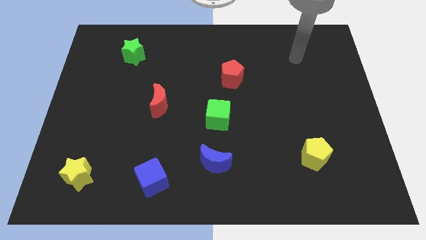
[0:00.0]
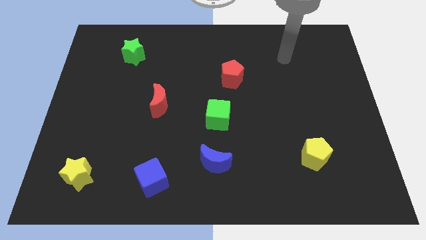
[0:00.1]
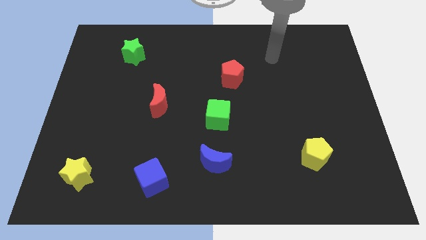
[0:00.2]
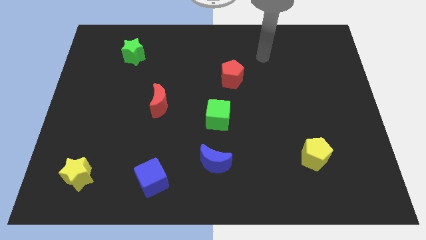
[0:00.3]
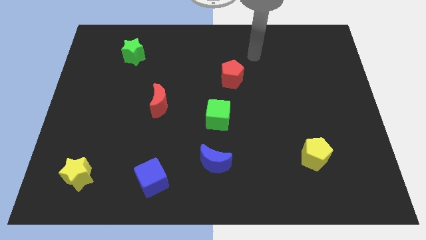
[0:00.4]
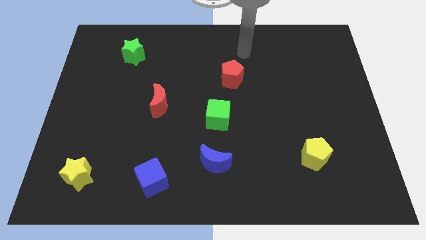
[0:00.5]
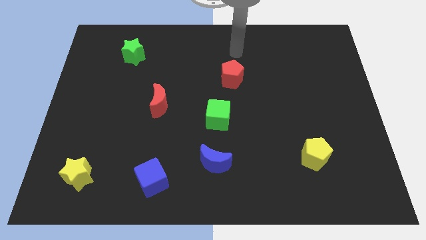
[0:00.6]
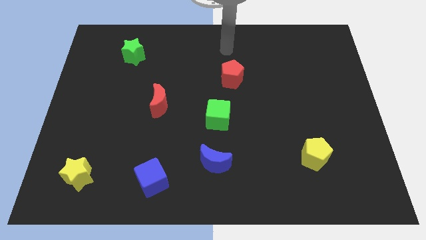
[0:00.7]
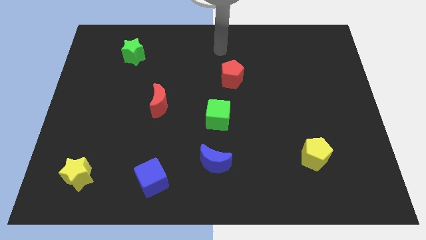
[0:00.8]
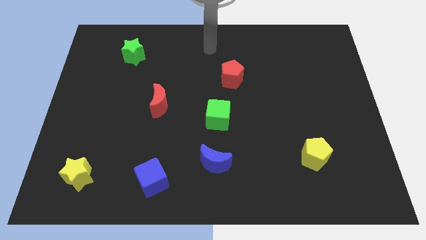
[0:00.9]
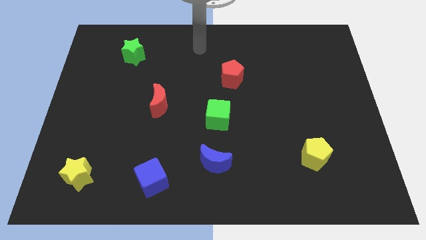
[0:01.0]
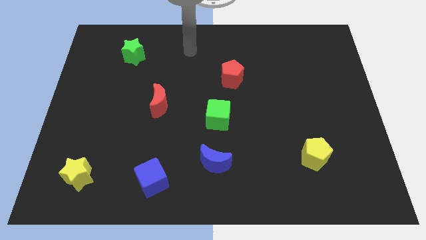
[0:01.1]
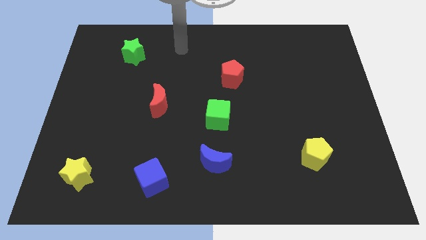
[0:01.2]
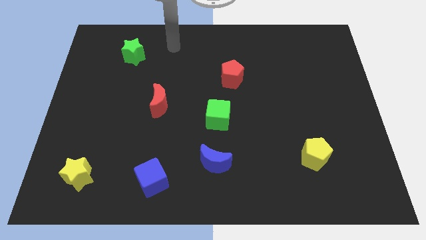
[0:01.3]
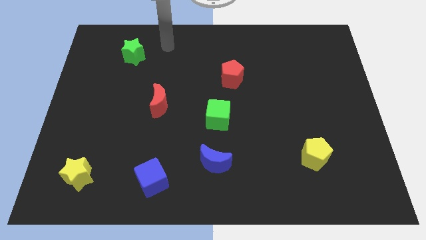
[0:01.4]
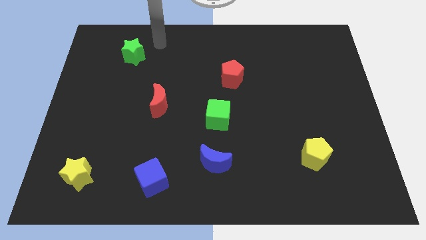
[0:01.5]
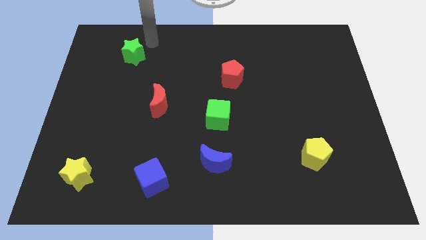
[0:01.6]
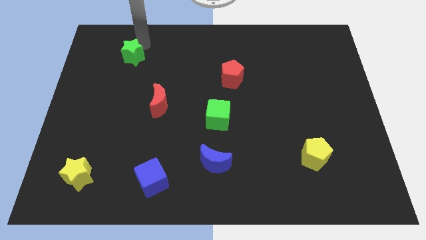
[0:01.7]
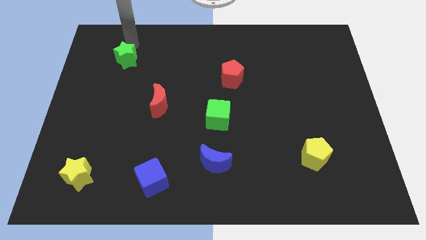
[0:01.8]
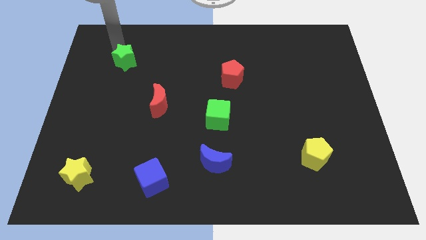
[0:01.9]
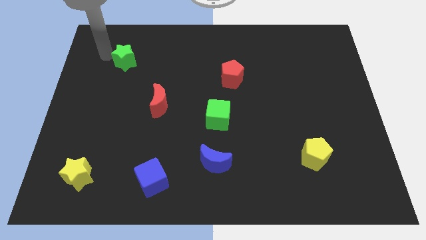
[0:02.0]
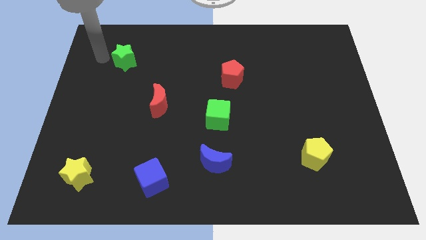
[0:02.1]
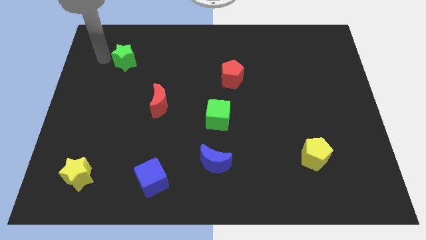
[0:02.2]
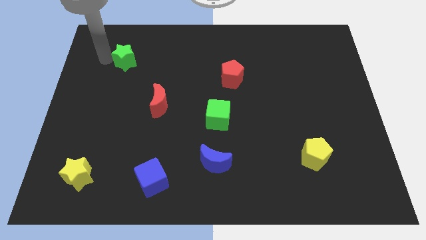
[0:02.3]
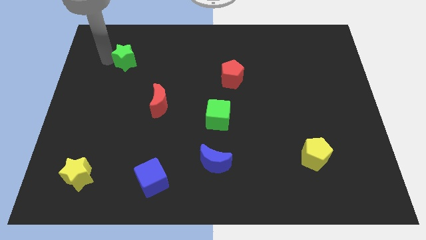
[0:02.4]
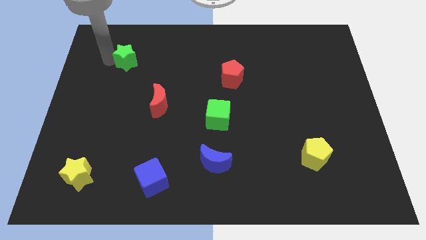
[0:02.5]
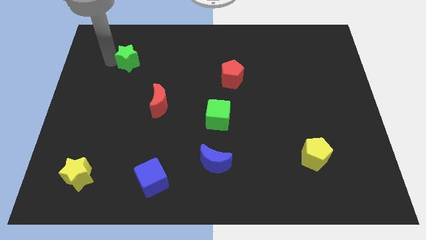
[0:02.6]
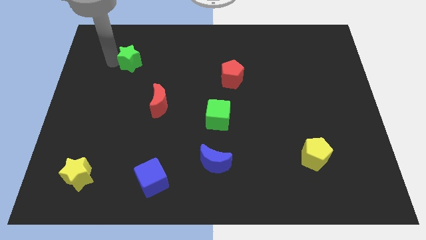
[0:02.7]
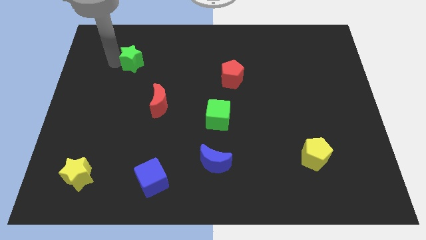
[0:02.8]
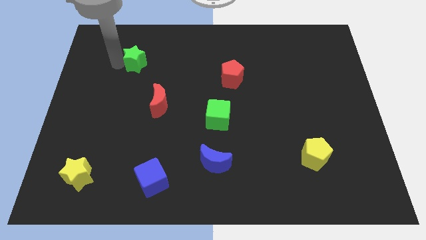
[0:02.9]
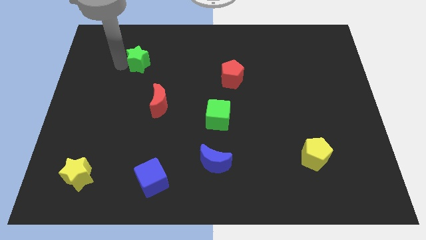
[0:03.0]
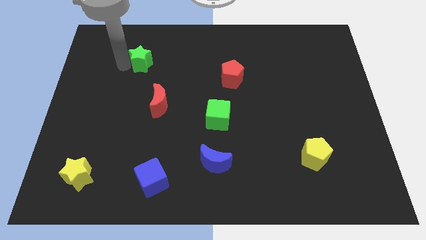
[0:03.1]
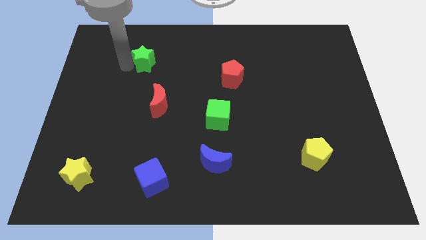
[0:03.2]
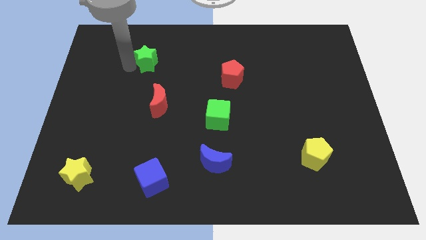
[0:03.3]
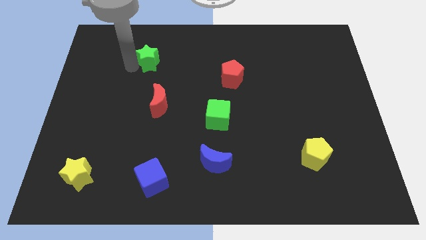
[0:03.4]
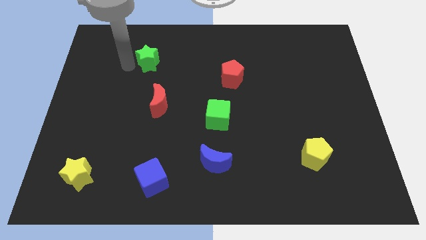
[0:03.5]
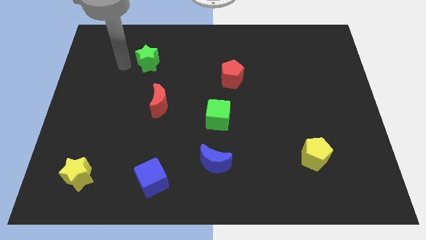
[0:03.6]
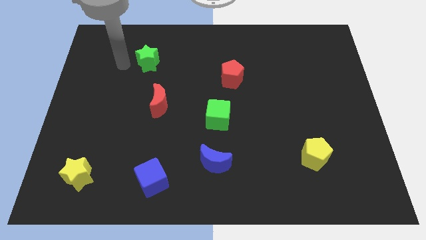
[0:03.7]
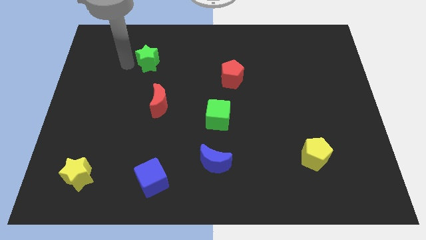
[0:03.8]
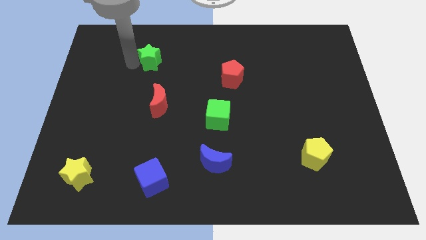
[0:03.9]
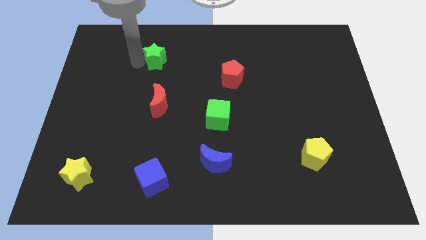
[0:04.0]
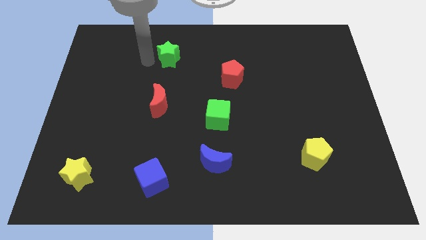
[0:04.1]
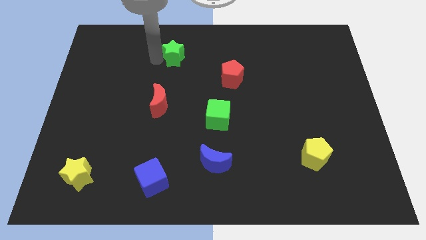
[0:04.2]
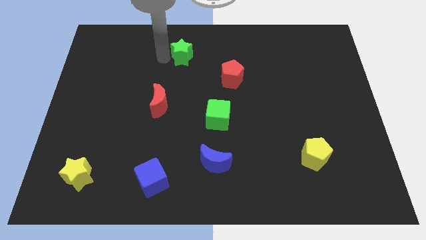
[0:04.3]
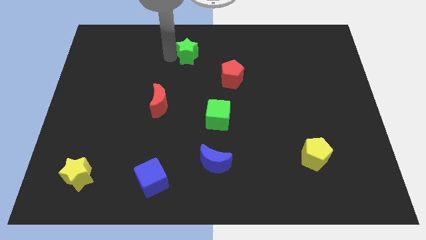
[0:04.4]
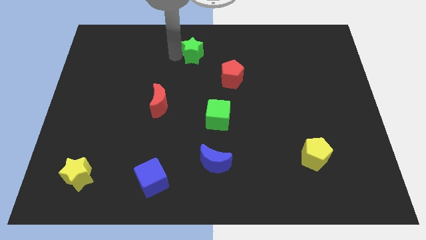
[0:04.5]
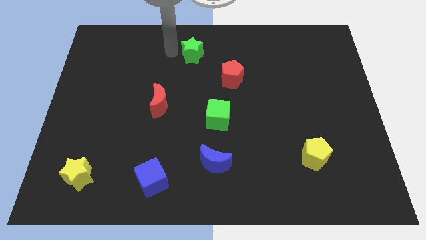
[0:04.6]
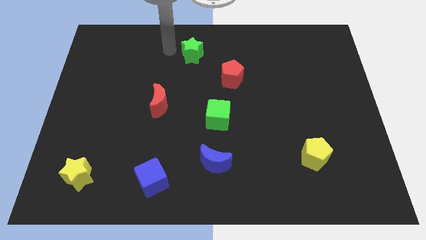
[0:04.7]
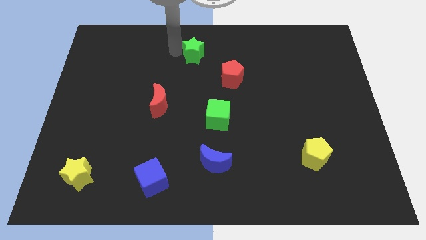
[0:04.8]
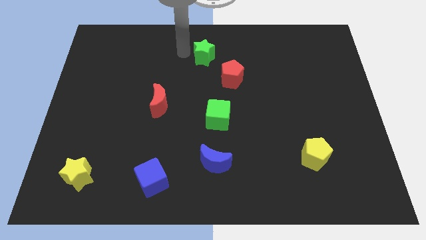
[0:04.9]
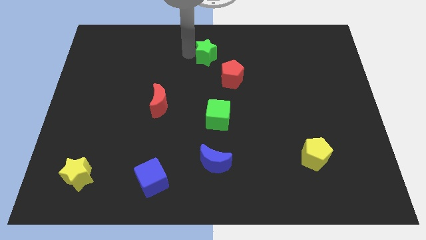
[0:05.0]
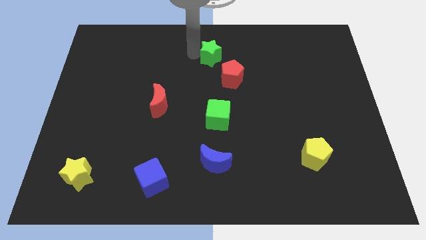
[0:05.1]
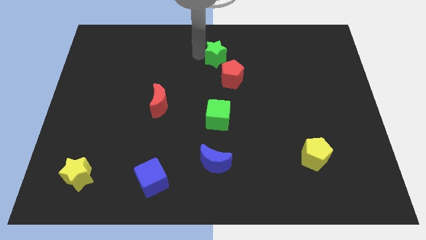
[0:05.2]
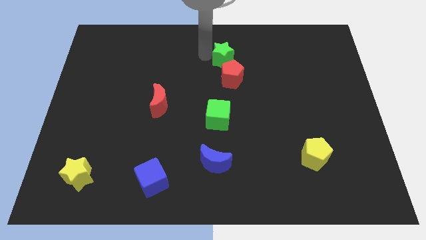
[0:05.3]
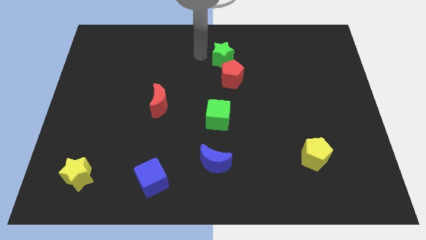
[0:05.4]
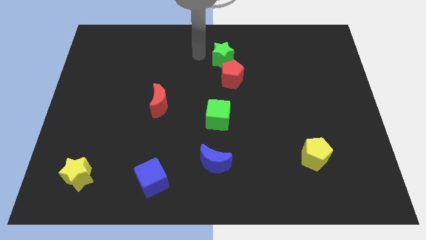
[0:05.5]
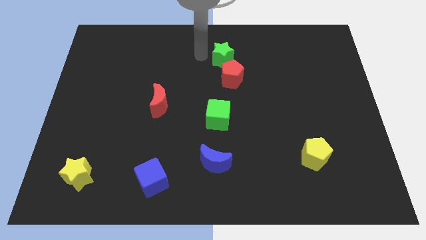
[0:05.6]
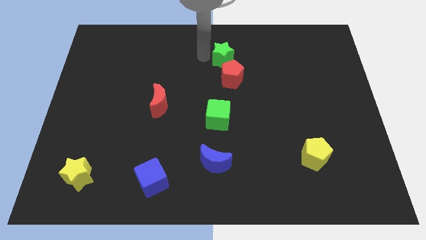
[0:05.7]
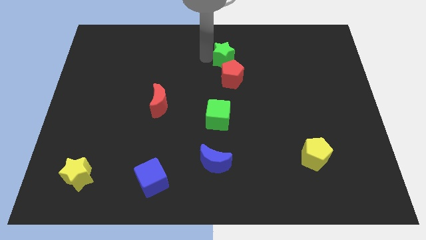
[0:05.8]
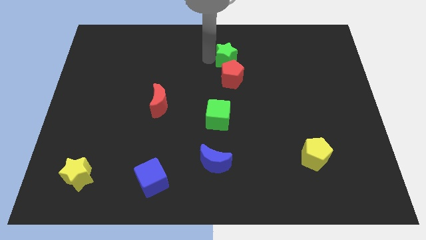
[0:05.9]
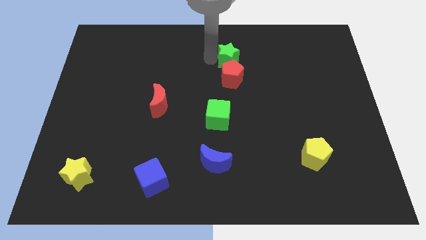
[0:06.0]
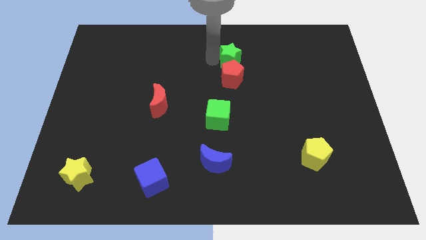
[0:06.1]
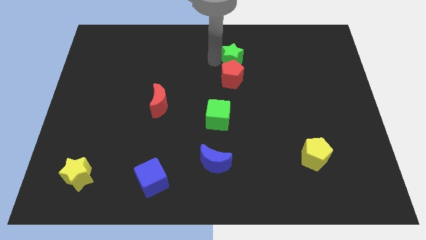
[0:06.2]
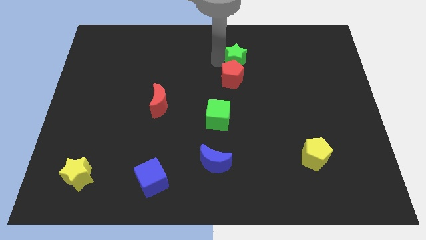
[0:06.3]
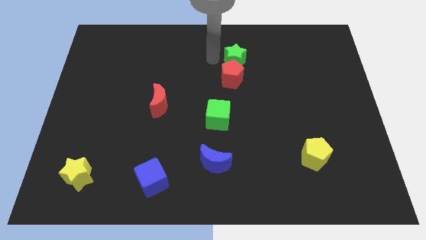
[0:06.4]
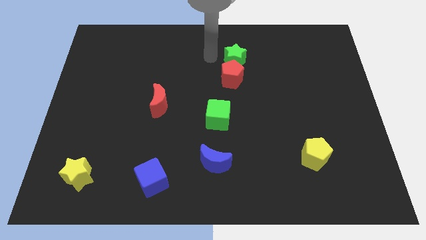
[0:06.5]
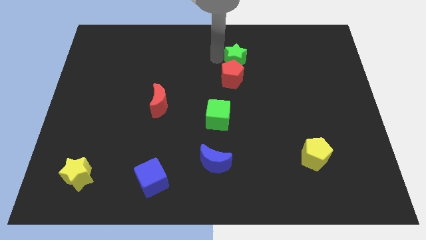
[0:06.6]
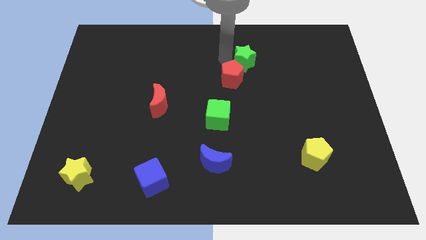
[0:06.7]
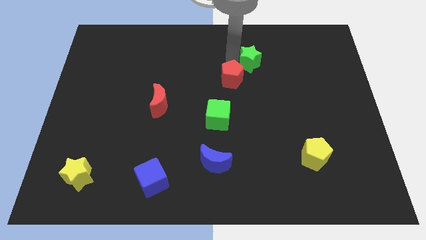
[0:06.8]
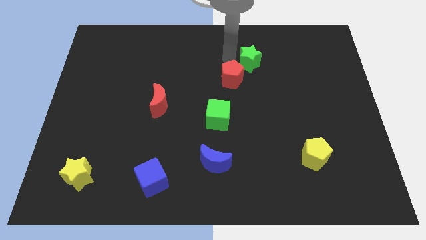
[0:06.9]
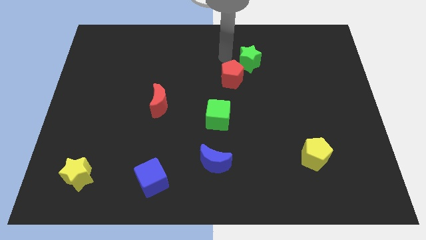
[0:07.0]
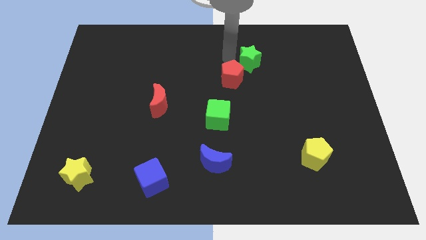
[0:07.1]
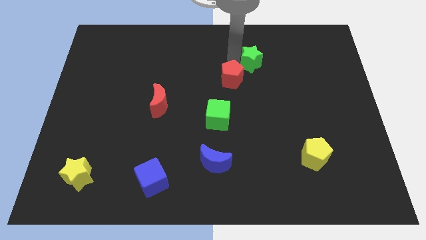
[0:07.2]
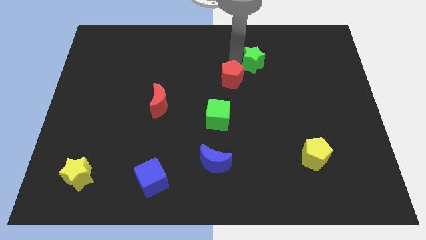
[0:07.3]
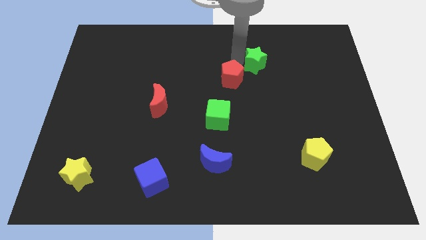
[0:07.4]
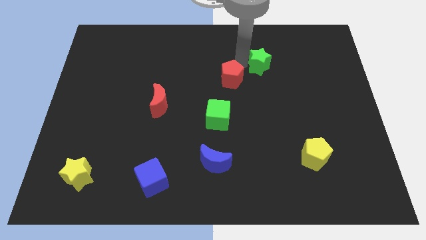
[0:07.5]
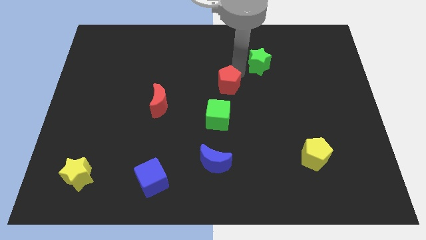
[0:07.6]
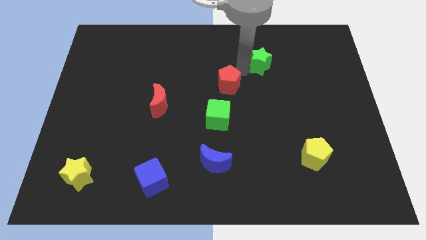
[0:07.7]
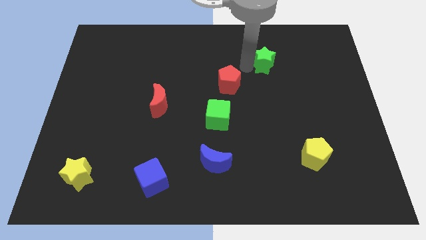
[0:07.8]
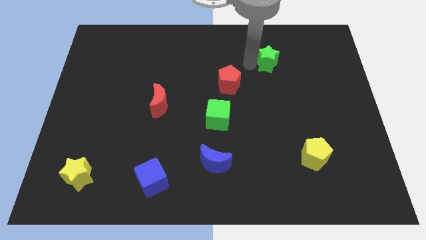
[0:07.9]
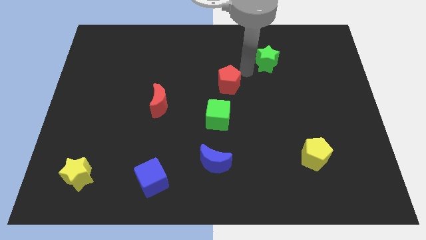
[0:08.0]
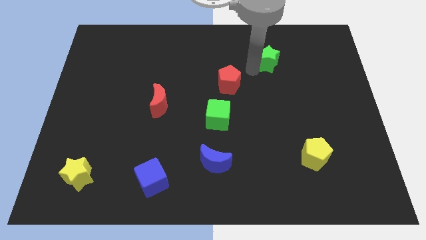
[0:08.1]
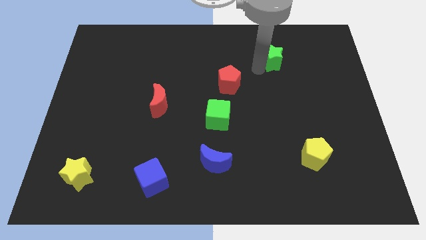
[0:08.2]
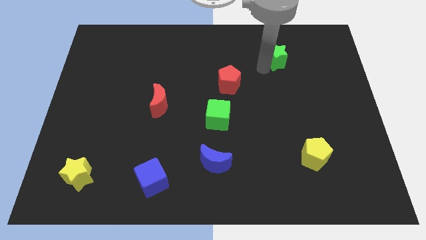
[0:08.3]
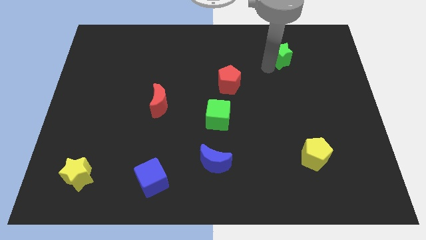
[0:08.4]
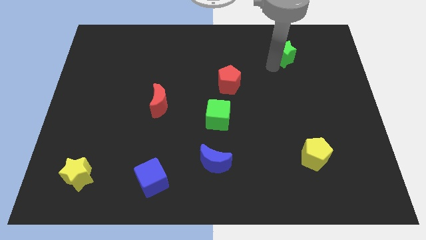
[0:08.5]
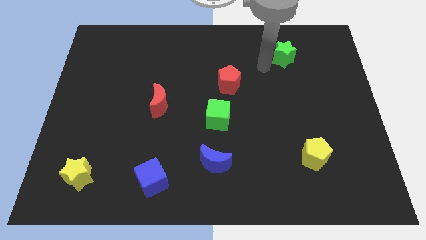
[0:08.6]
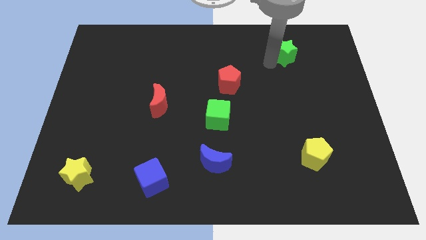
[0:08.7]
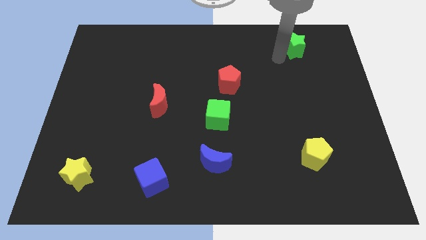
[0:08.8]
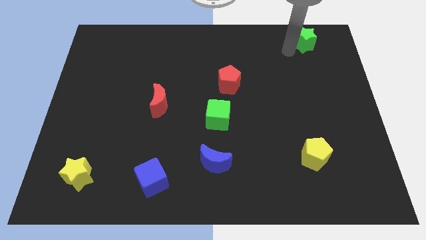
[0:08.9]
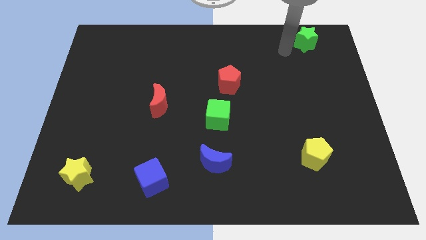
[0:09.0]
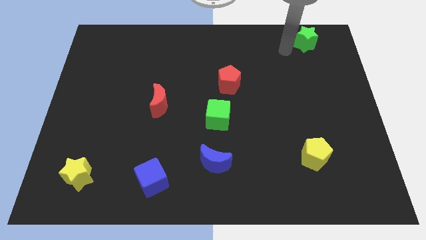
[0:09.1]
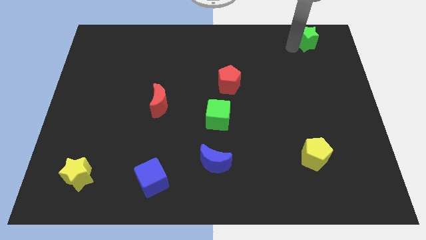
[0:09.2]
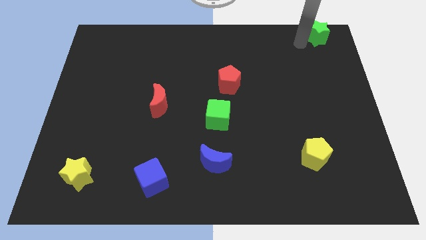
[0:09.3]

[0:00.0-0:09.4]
put the green star to the upper right corner
